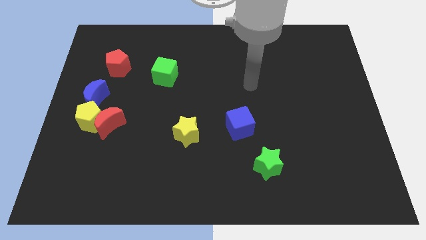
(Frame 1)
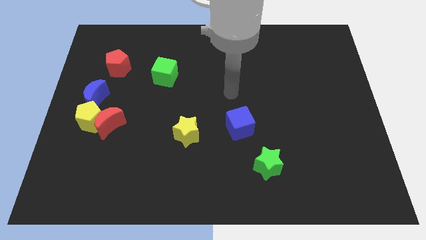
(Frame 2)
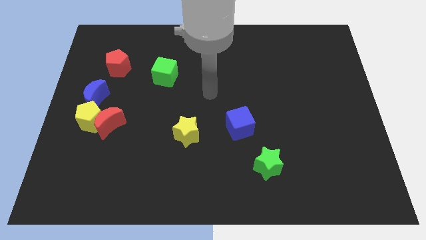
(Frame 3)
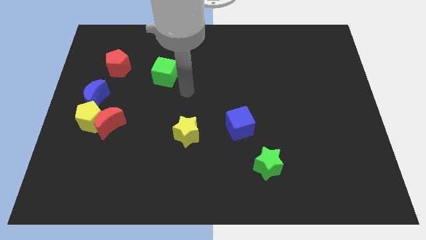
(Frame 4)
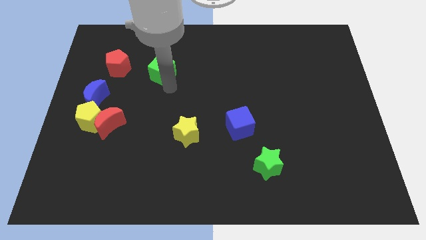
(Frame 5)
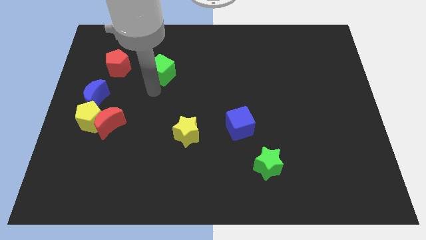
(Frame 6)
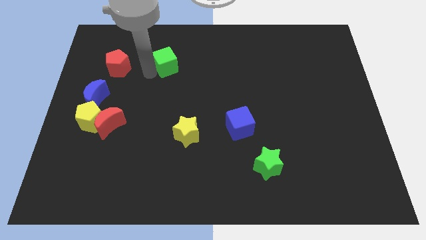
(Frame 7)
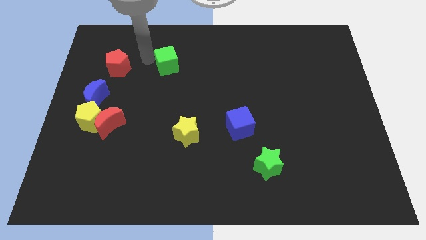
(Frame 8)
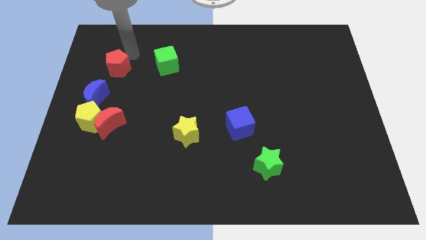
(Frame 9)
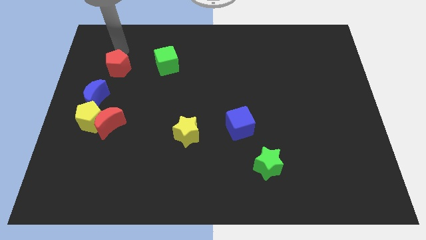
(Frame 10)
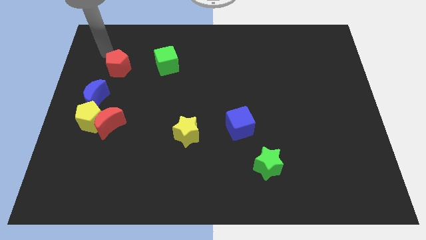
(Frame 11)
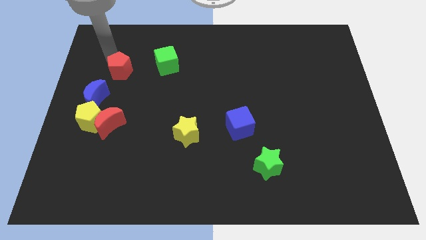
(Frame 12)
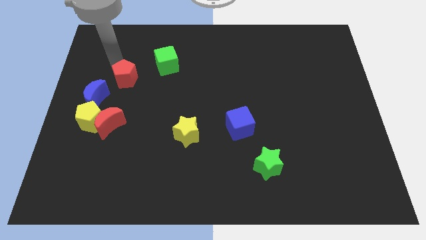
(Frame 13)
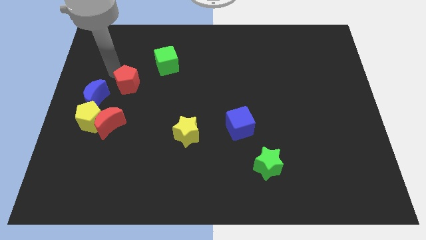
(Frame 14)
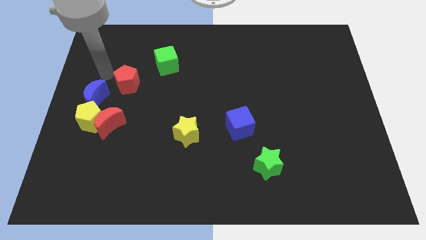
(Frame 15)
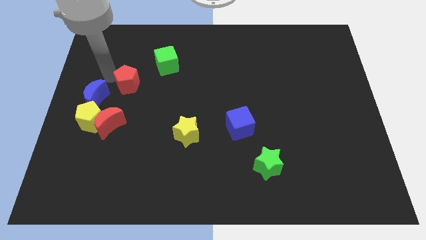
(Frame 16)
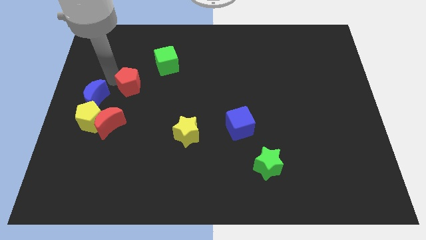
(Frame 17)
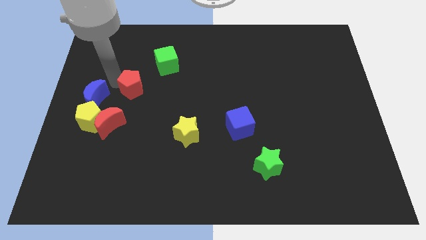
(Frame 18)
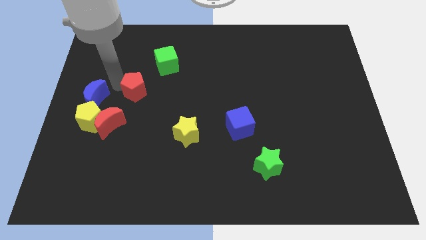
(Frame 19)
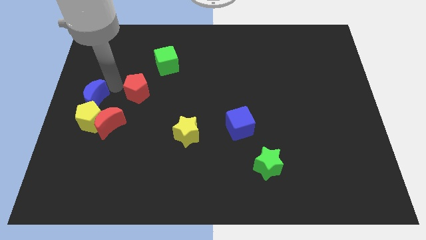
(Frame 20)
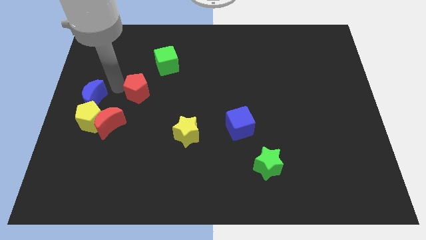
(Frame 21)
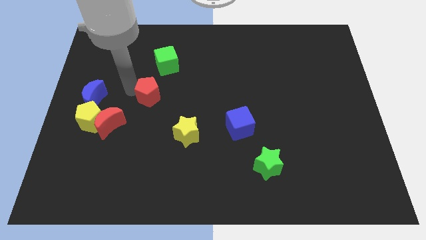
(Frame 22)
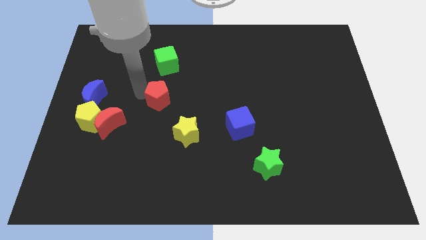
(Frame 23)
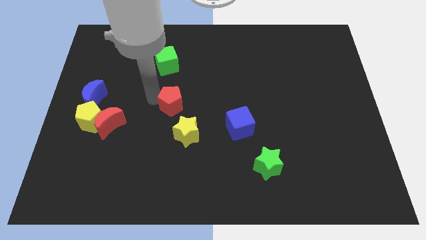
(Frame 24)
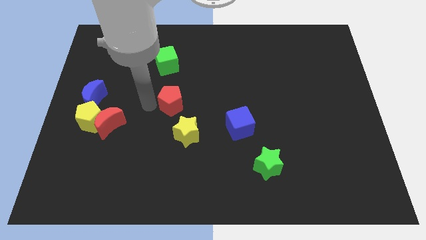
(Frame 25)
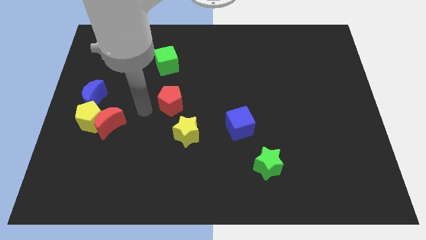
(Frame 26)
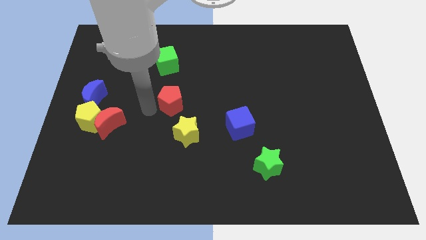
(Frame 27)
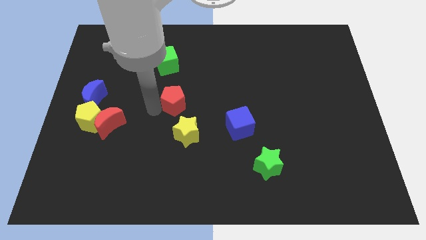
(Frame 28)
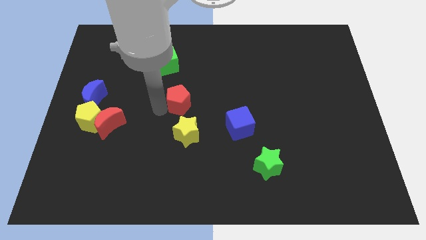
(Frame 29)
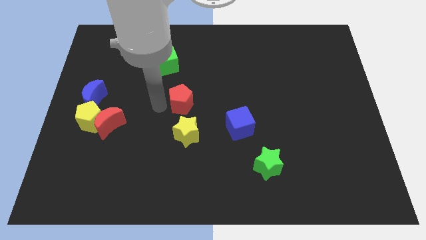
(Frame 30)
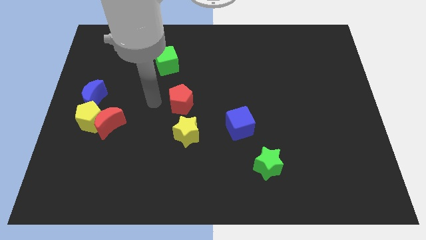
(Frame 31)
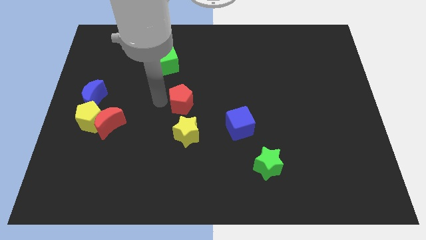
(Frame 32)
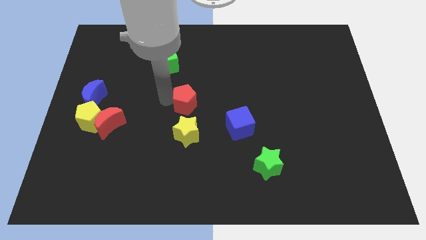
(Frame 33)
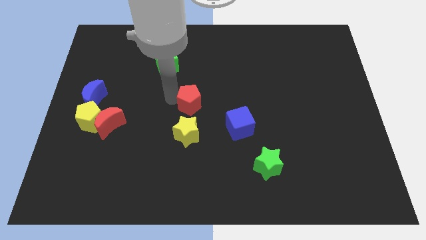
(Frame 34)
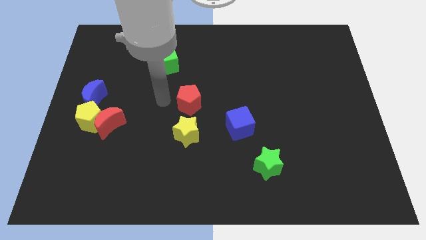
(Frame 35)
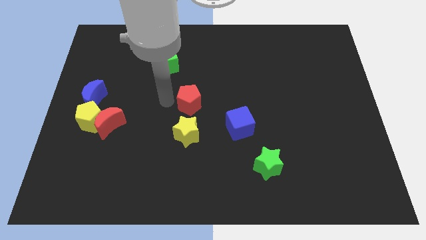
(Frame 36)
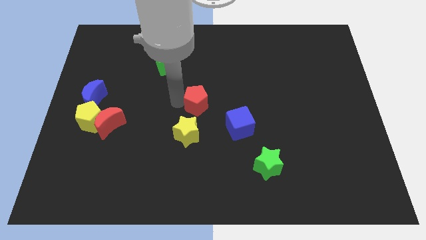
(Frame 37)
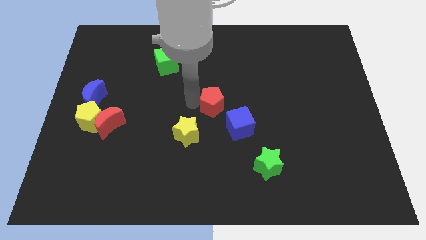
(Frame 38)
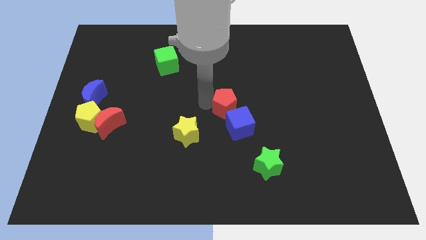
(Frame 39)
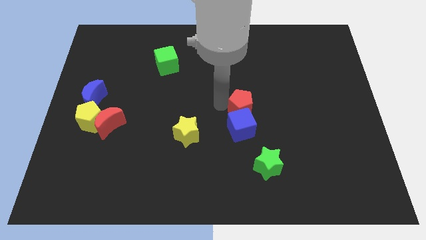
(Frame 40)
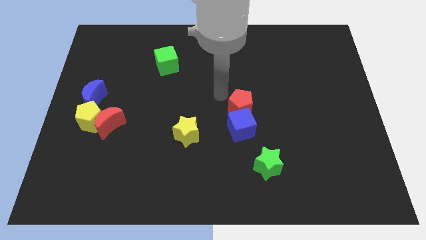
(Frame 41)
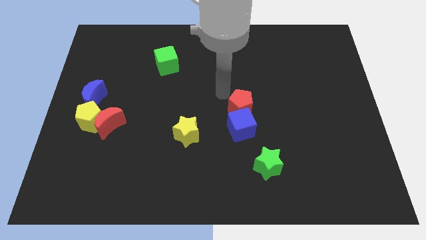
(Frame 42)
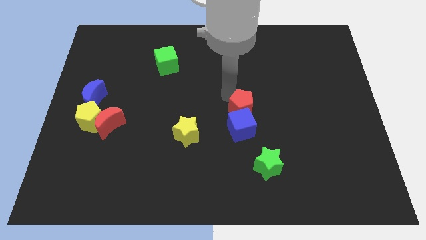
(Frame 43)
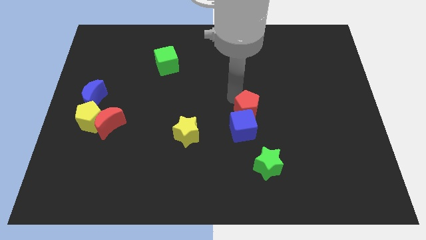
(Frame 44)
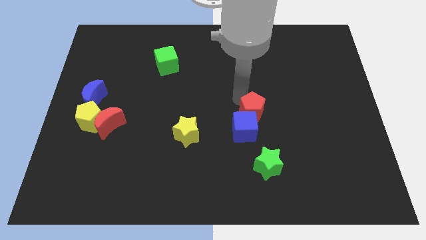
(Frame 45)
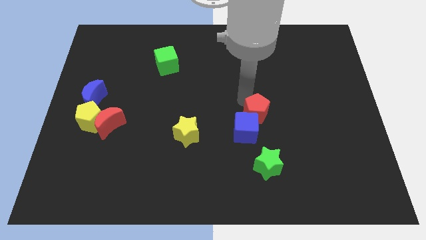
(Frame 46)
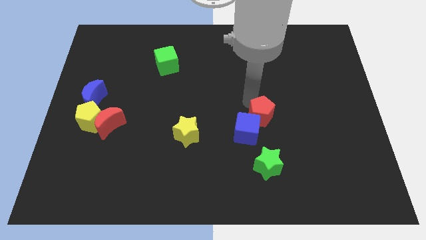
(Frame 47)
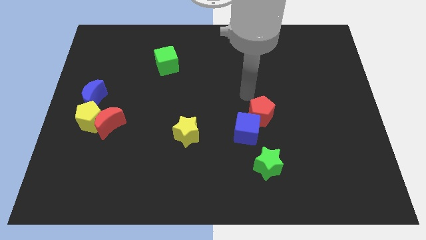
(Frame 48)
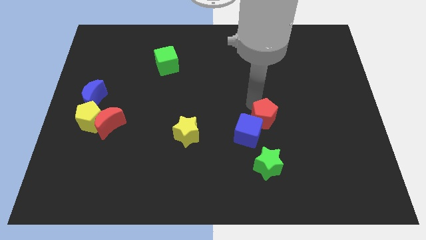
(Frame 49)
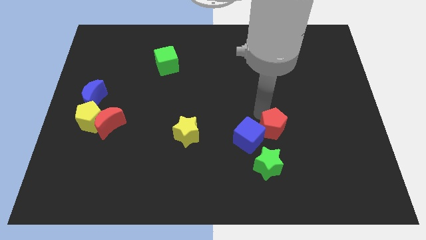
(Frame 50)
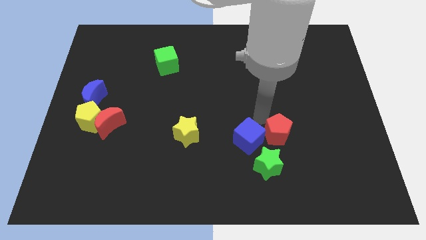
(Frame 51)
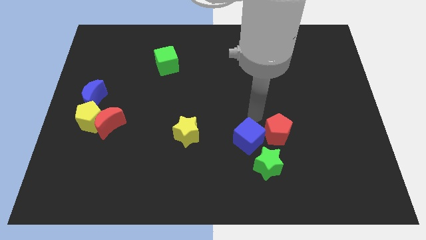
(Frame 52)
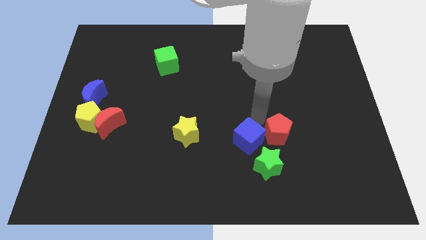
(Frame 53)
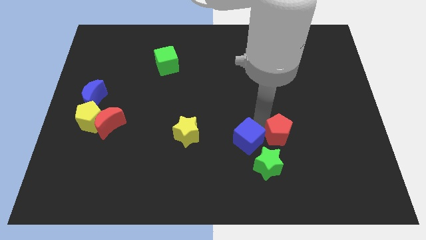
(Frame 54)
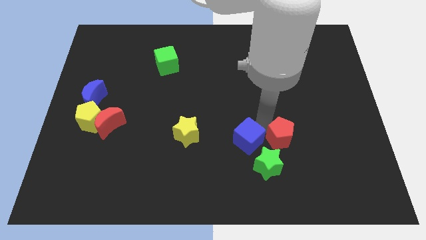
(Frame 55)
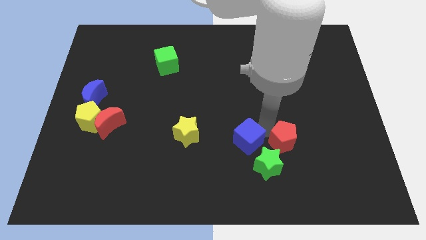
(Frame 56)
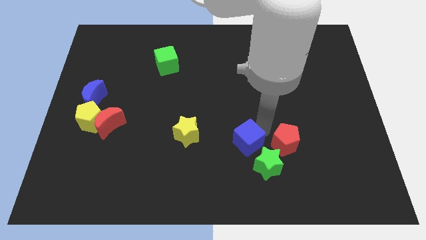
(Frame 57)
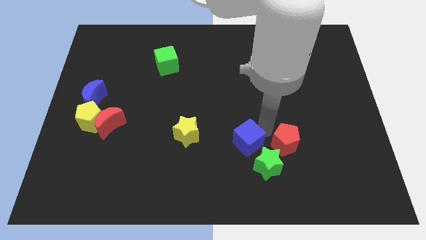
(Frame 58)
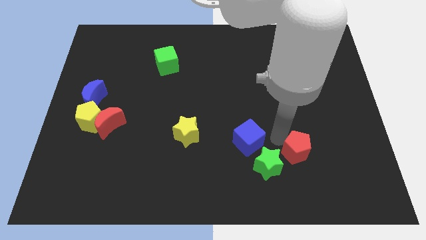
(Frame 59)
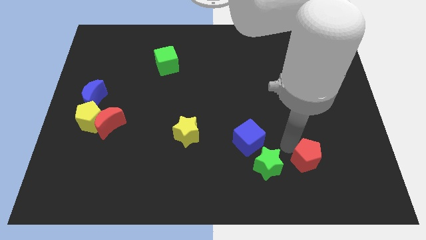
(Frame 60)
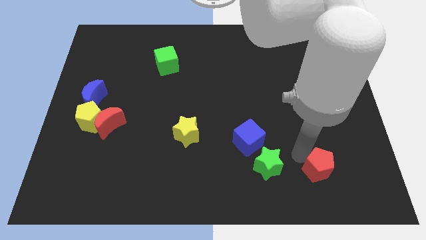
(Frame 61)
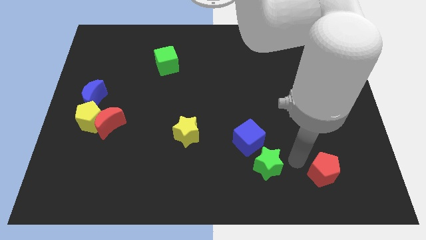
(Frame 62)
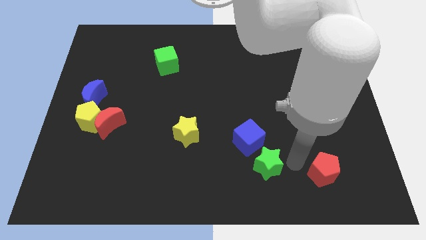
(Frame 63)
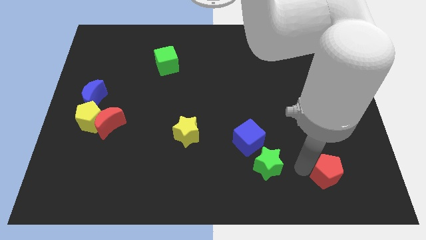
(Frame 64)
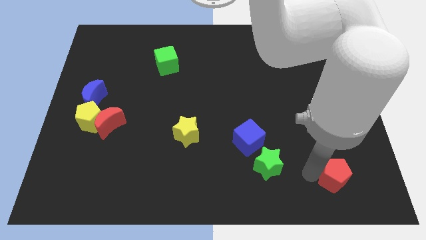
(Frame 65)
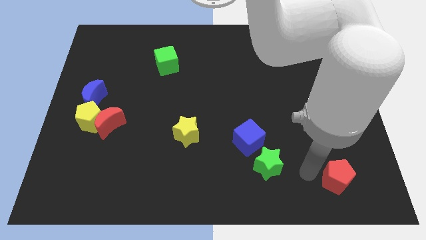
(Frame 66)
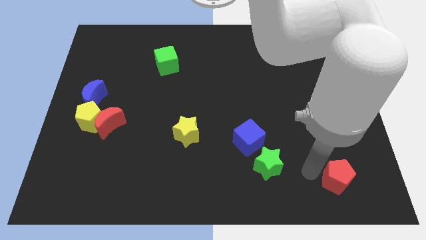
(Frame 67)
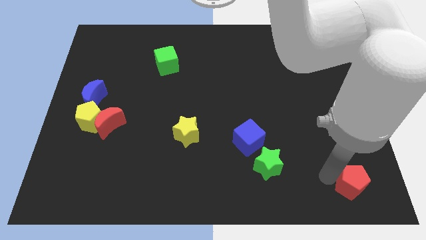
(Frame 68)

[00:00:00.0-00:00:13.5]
push the red pentagon to the lower right corner
